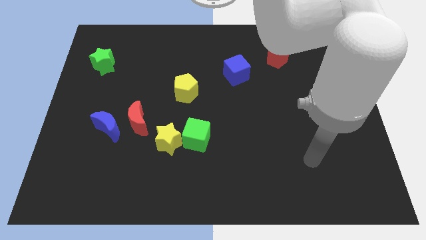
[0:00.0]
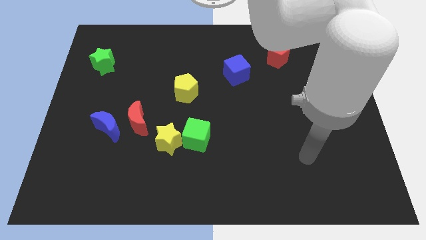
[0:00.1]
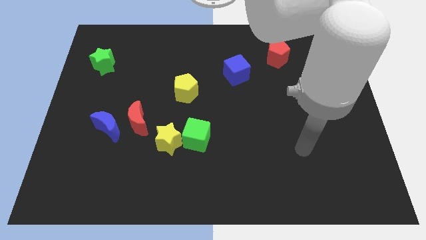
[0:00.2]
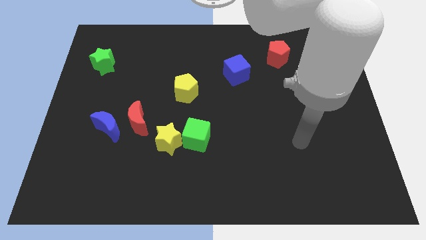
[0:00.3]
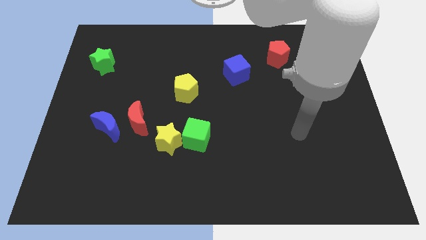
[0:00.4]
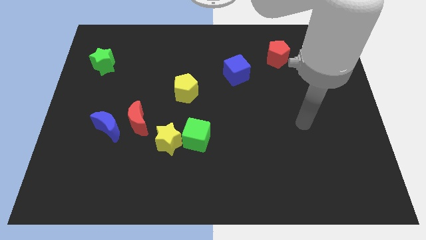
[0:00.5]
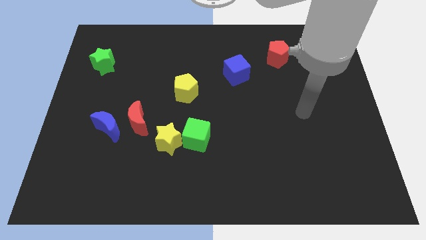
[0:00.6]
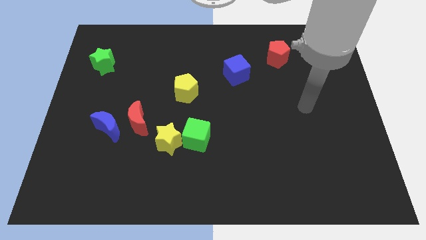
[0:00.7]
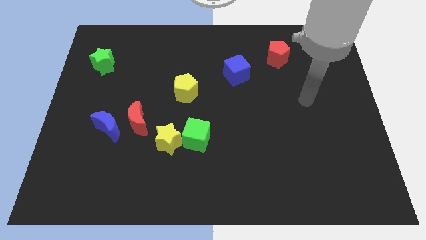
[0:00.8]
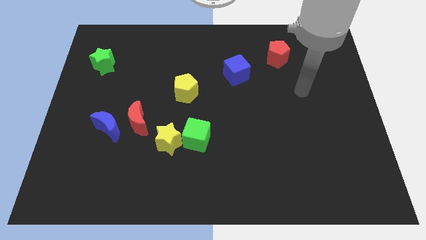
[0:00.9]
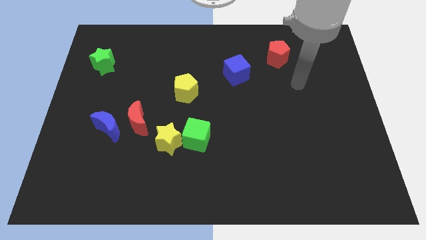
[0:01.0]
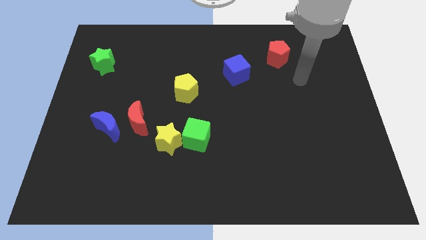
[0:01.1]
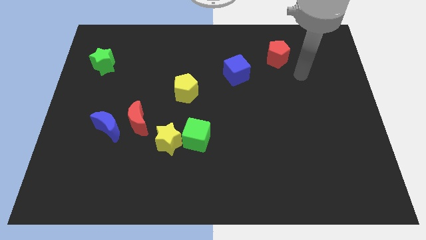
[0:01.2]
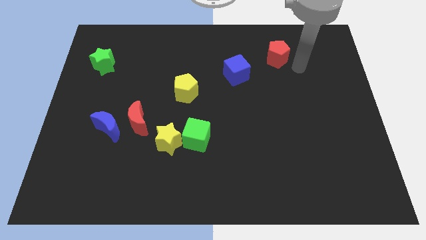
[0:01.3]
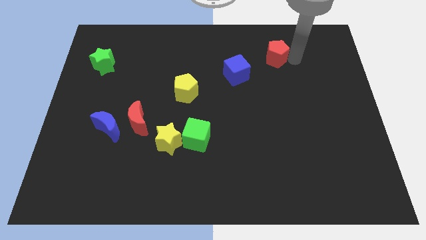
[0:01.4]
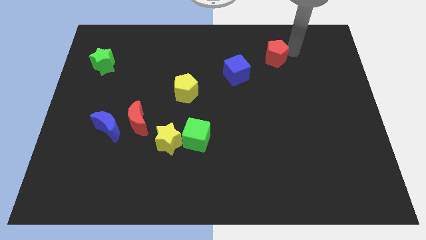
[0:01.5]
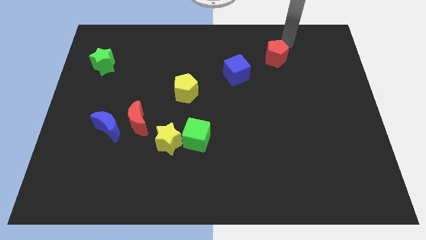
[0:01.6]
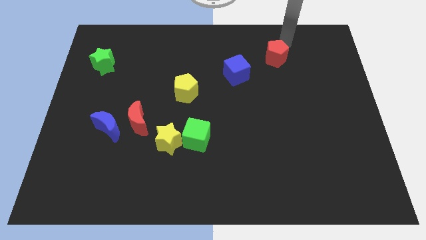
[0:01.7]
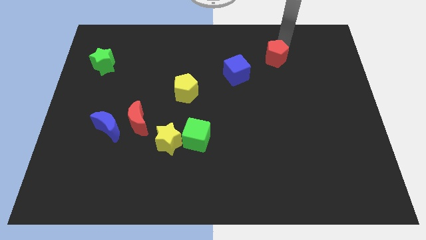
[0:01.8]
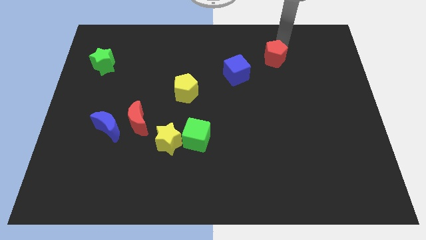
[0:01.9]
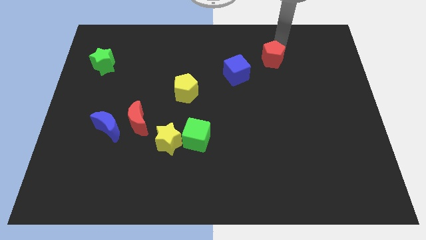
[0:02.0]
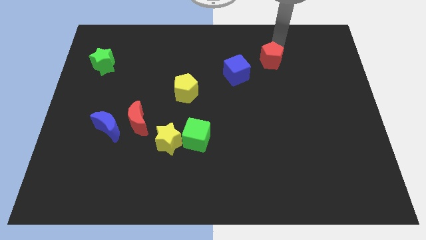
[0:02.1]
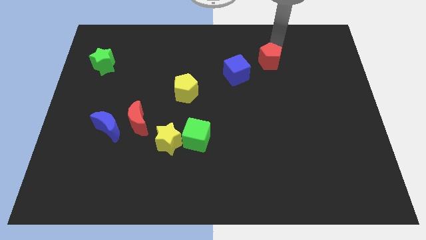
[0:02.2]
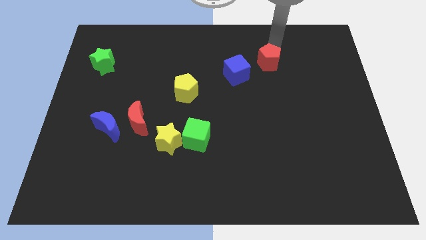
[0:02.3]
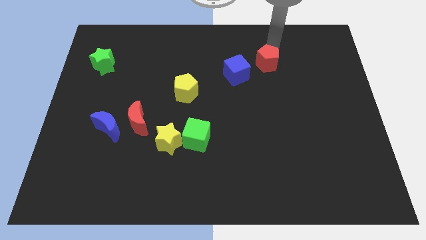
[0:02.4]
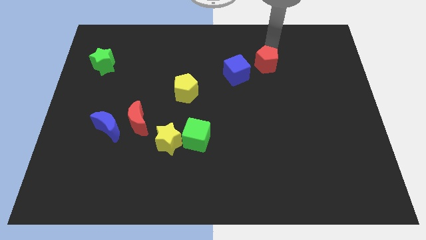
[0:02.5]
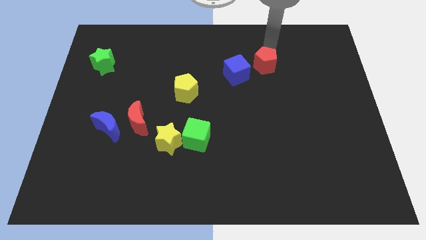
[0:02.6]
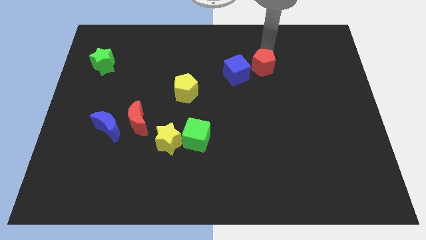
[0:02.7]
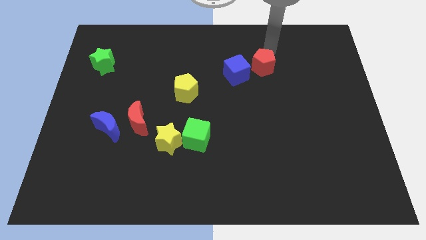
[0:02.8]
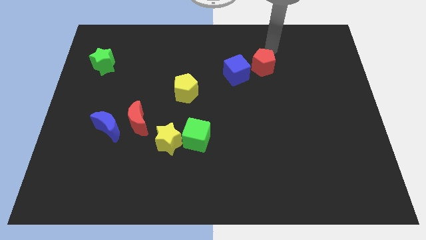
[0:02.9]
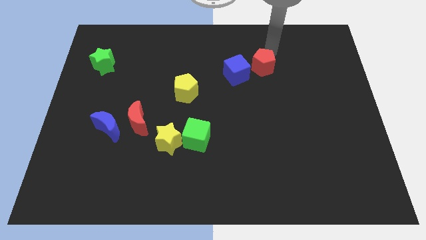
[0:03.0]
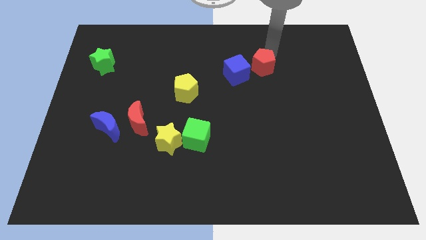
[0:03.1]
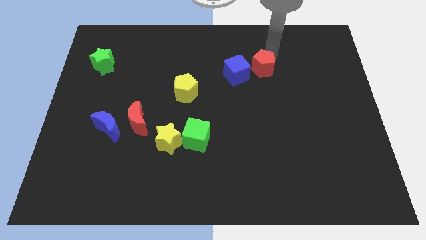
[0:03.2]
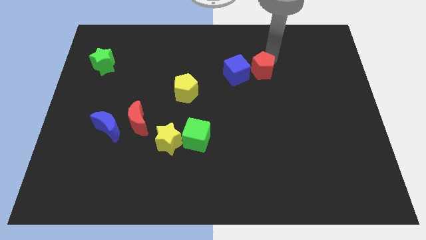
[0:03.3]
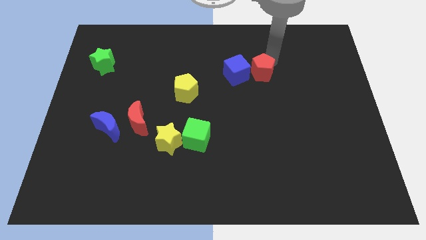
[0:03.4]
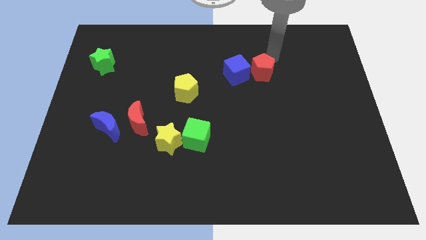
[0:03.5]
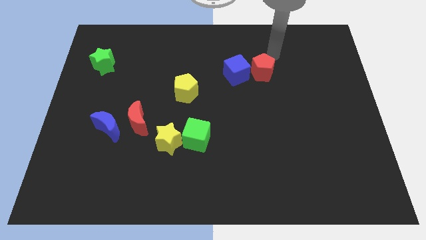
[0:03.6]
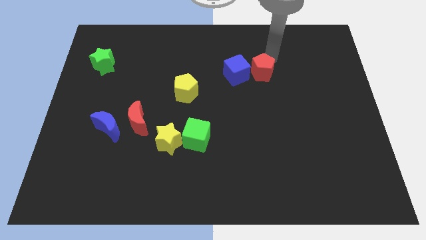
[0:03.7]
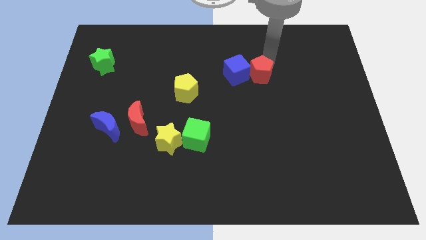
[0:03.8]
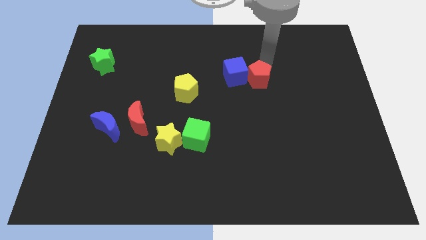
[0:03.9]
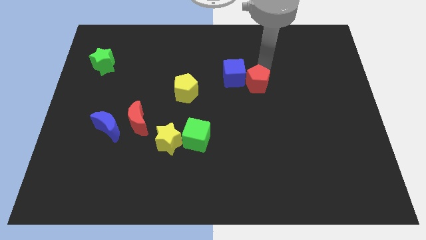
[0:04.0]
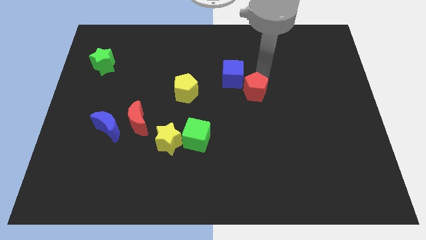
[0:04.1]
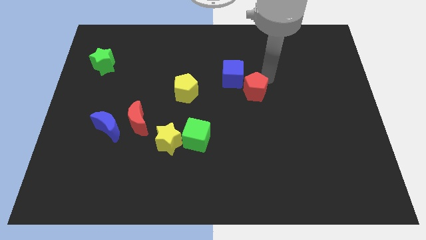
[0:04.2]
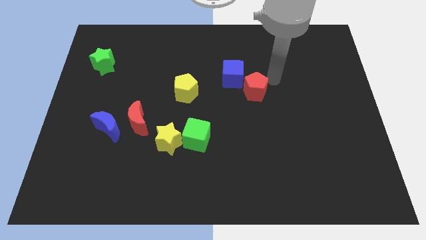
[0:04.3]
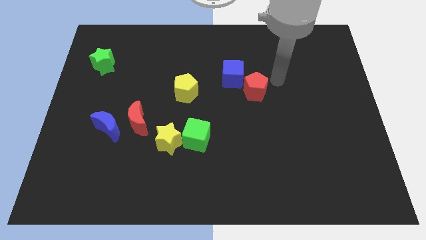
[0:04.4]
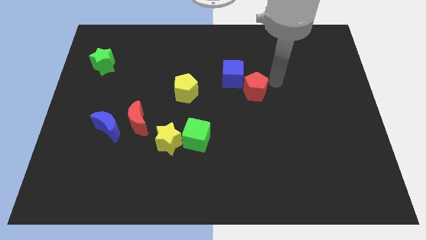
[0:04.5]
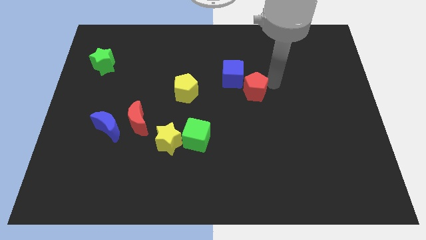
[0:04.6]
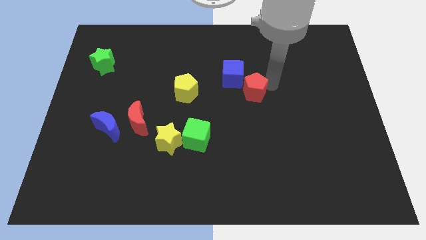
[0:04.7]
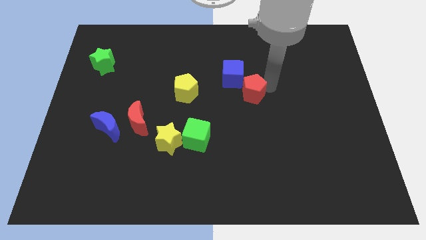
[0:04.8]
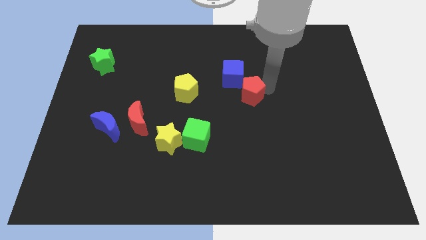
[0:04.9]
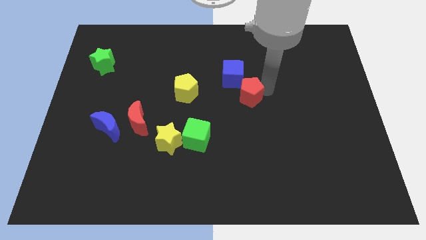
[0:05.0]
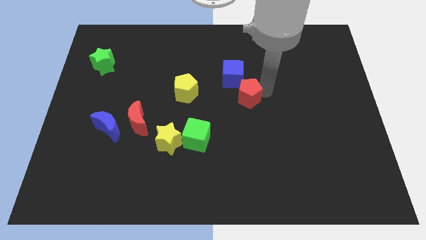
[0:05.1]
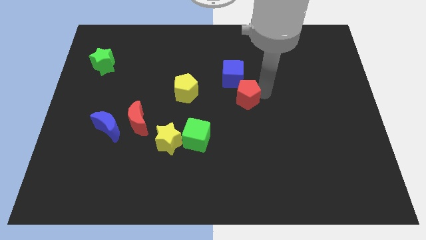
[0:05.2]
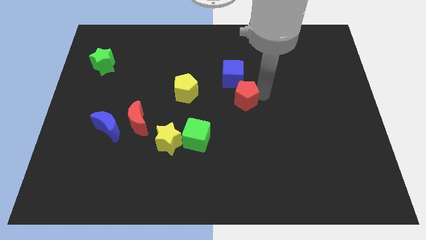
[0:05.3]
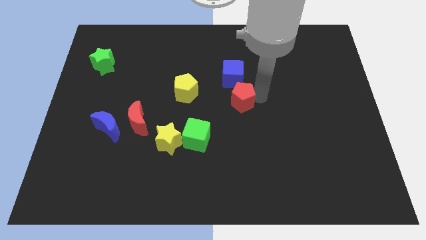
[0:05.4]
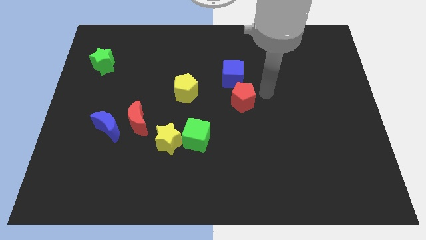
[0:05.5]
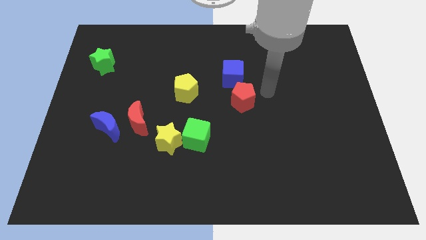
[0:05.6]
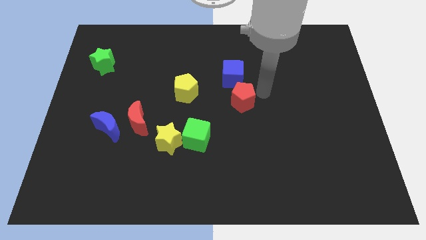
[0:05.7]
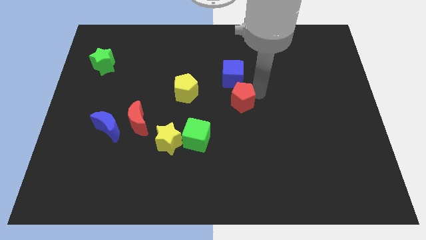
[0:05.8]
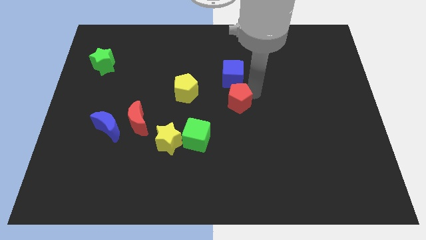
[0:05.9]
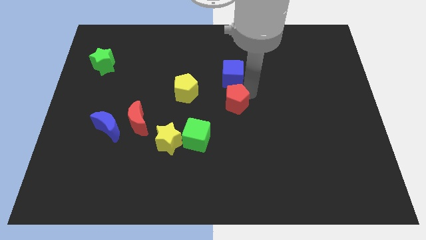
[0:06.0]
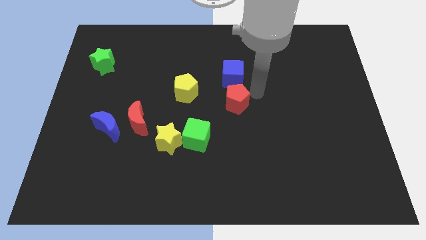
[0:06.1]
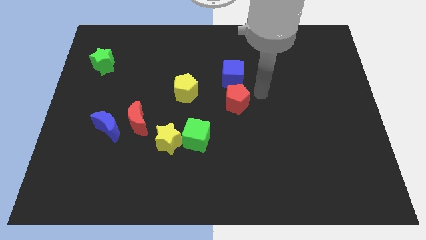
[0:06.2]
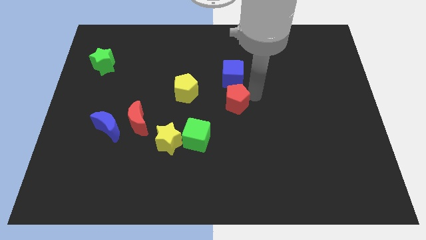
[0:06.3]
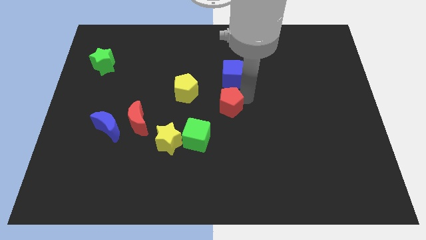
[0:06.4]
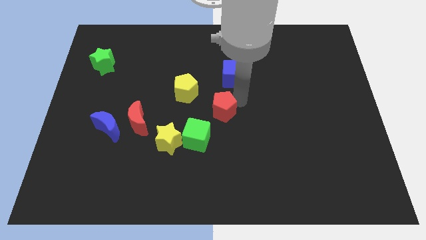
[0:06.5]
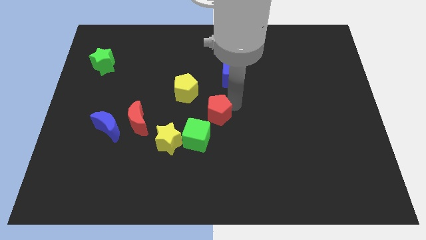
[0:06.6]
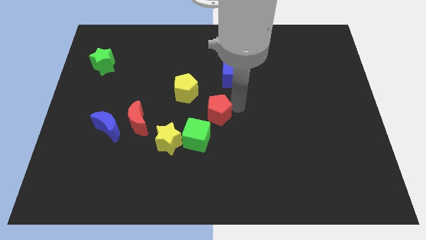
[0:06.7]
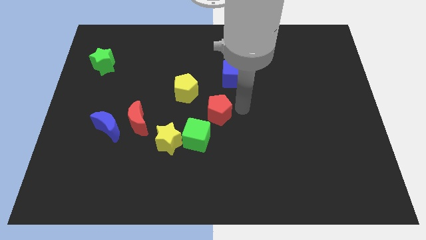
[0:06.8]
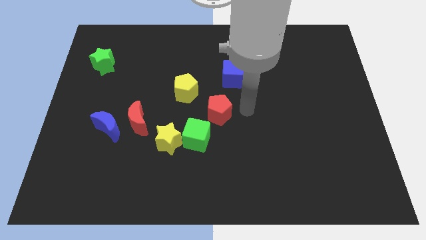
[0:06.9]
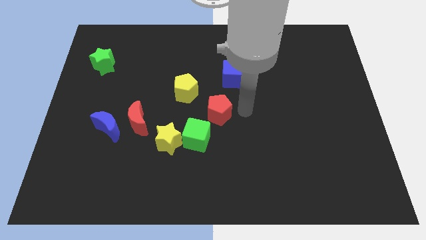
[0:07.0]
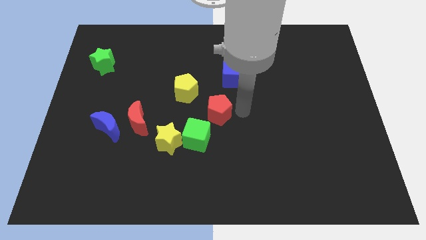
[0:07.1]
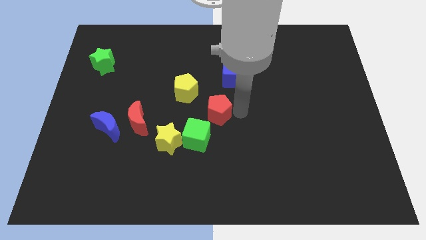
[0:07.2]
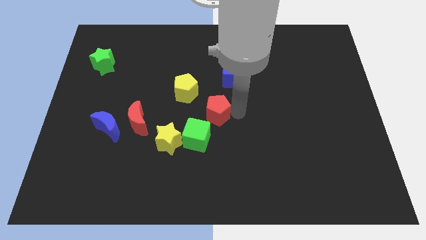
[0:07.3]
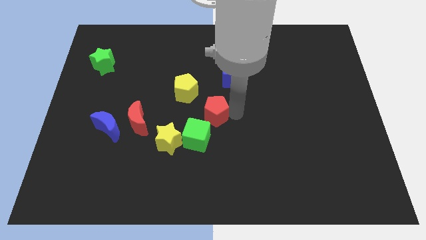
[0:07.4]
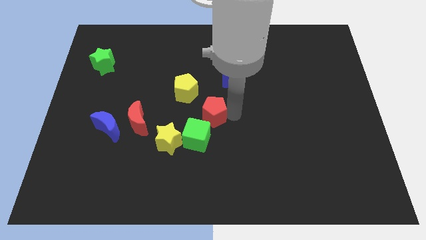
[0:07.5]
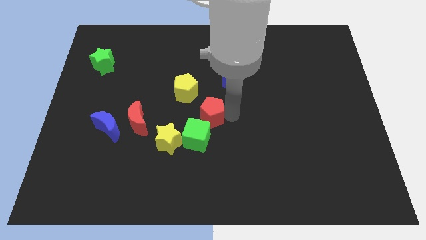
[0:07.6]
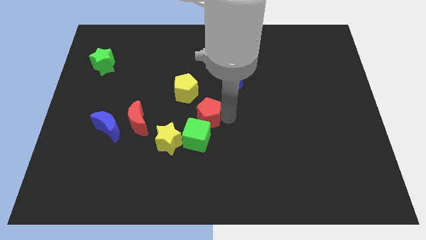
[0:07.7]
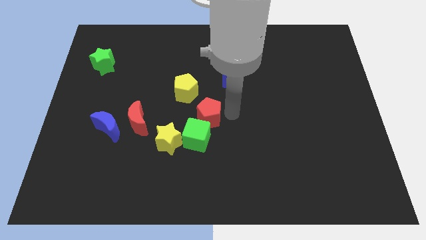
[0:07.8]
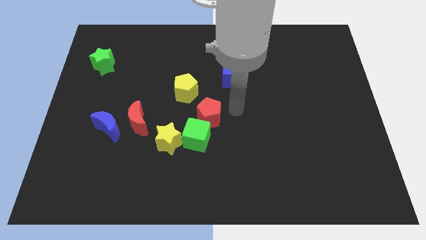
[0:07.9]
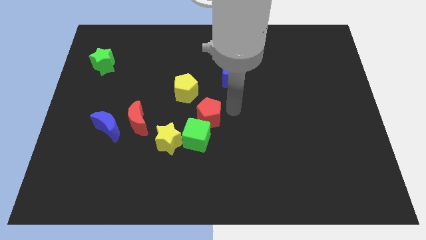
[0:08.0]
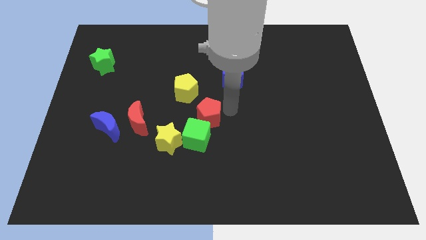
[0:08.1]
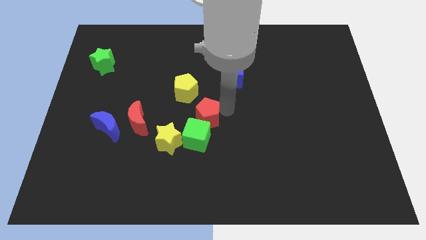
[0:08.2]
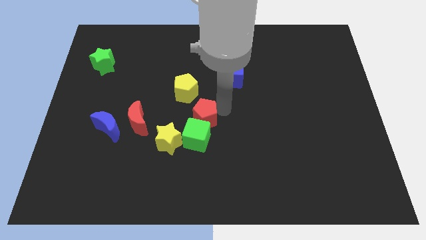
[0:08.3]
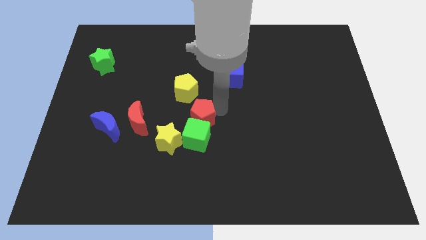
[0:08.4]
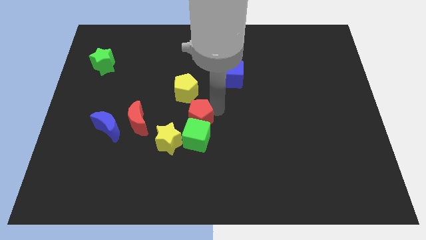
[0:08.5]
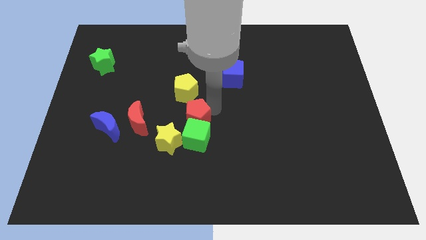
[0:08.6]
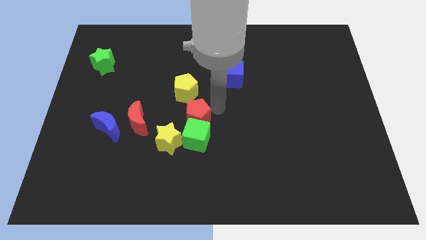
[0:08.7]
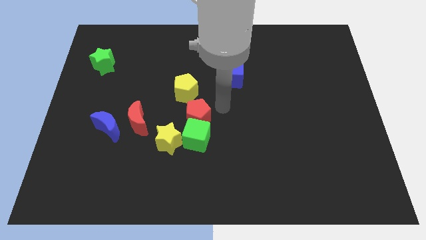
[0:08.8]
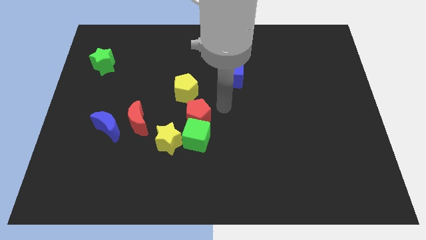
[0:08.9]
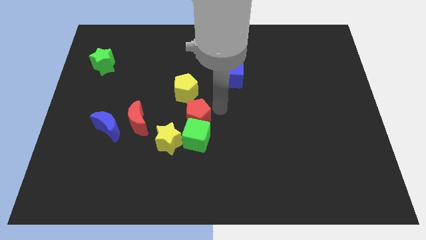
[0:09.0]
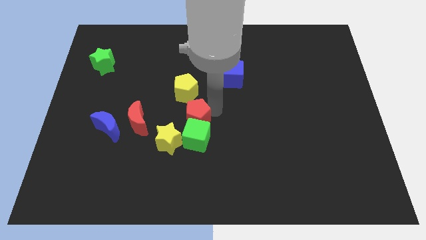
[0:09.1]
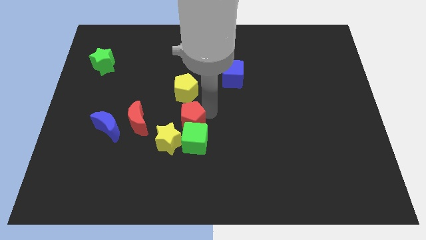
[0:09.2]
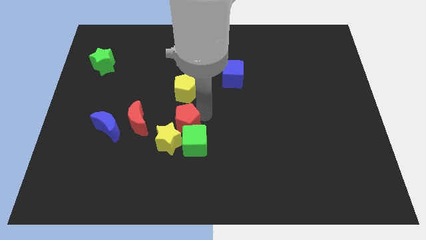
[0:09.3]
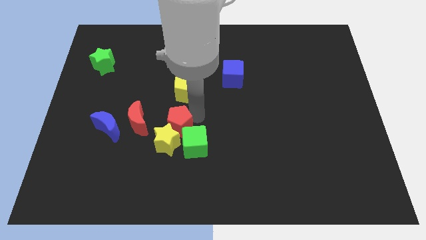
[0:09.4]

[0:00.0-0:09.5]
put the red pentagon next to the yellow star
